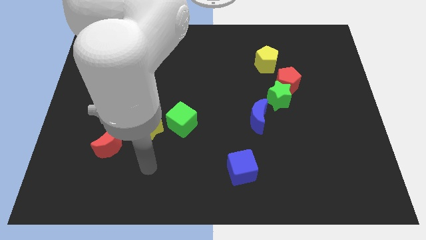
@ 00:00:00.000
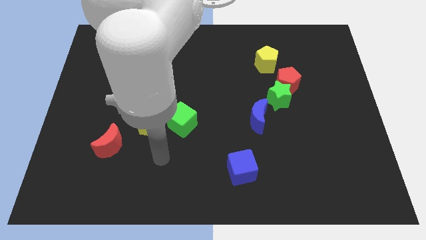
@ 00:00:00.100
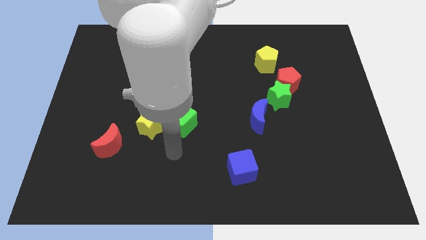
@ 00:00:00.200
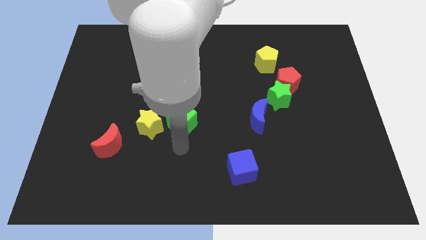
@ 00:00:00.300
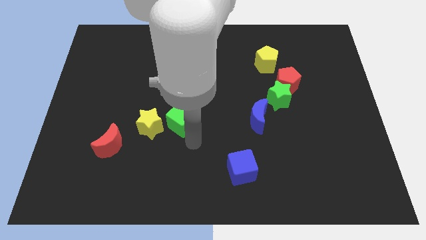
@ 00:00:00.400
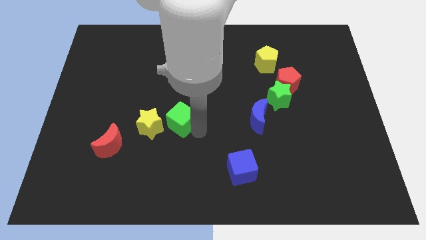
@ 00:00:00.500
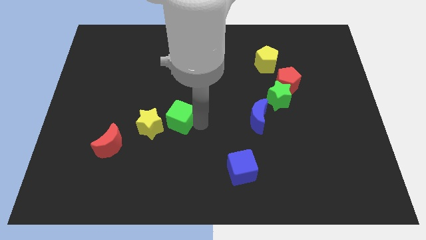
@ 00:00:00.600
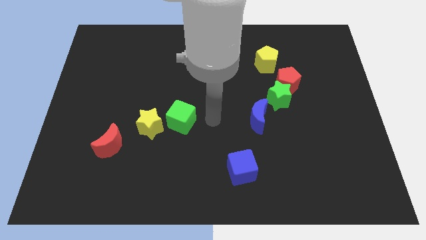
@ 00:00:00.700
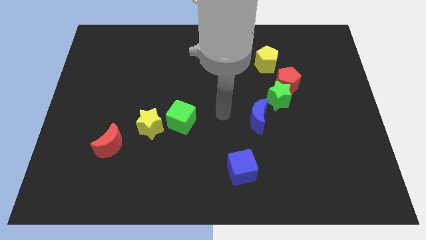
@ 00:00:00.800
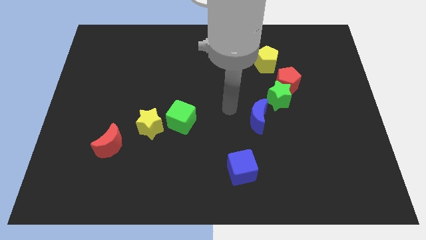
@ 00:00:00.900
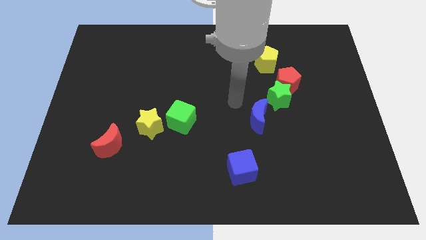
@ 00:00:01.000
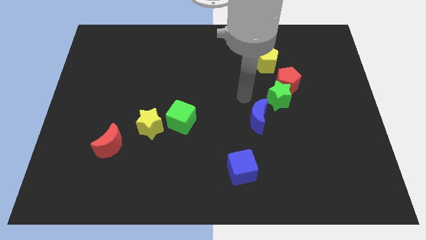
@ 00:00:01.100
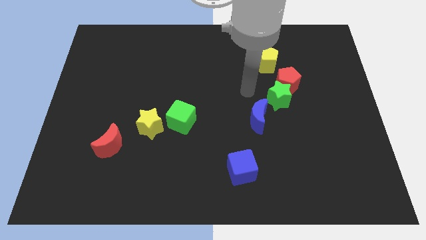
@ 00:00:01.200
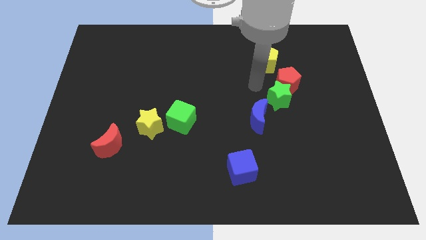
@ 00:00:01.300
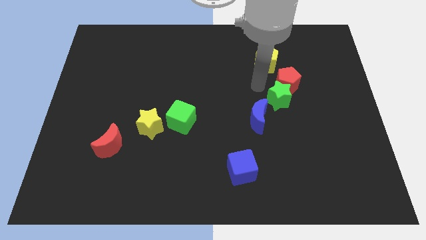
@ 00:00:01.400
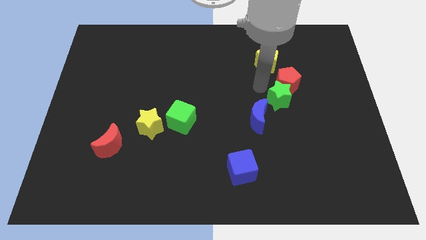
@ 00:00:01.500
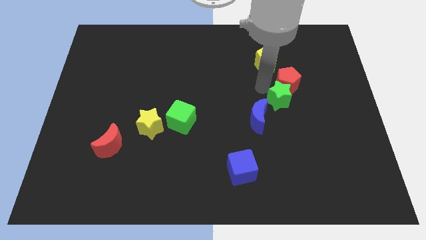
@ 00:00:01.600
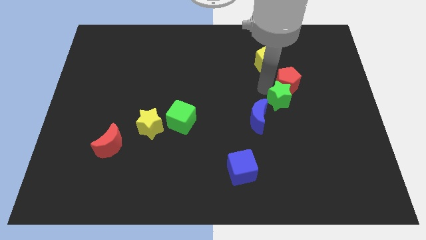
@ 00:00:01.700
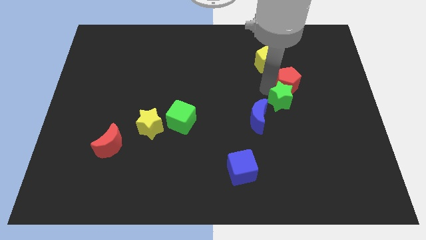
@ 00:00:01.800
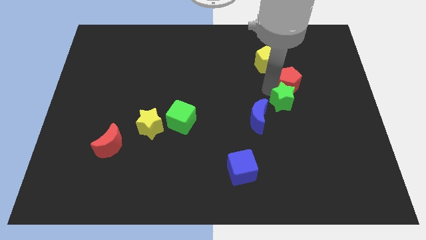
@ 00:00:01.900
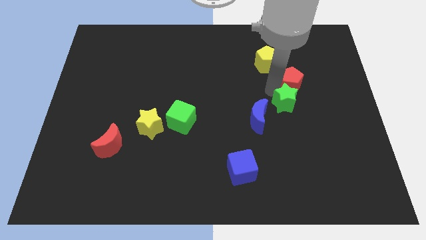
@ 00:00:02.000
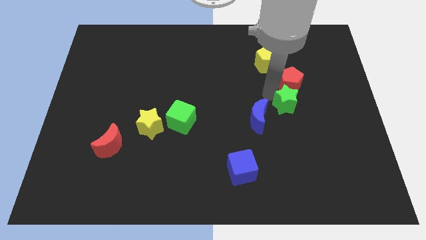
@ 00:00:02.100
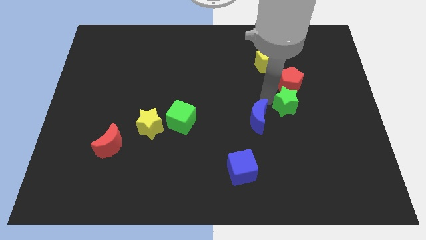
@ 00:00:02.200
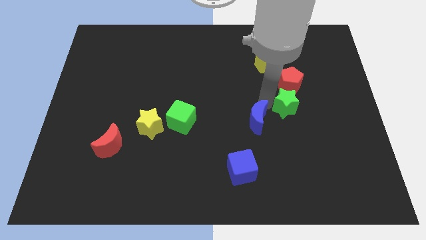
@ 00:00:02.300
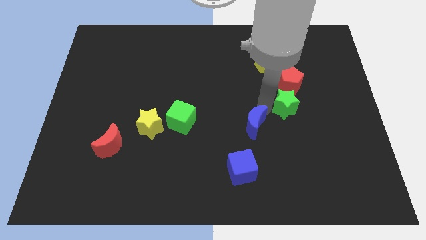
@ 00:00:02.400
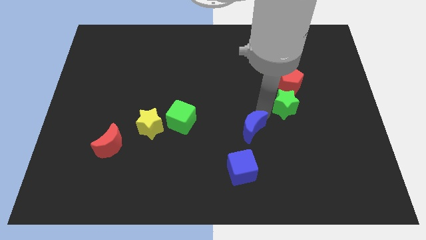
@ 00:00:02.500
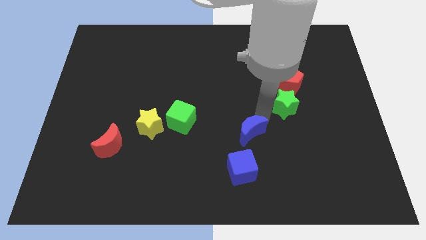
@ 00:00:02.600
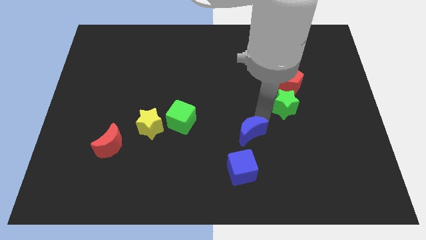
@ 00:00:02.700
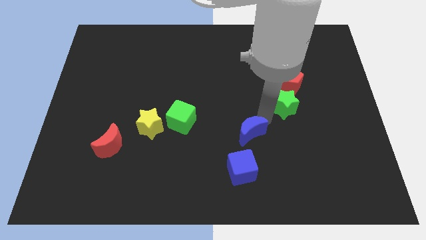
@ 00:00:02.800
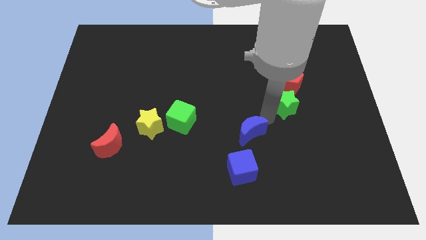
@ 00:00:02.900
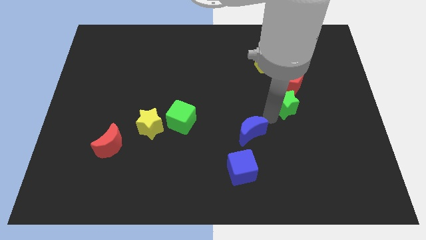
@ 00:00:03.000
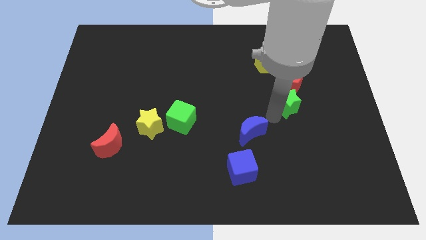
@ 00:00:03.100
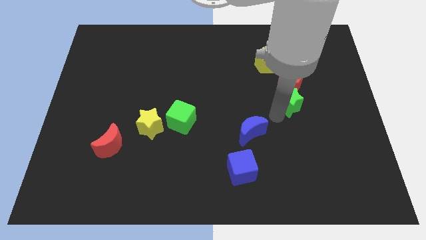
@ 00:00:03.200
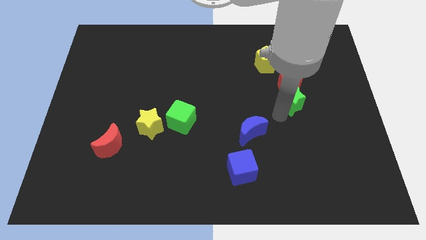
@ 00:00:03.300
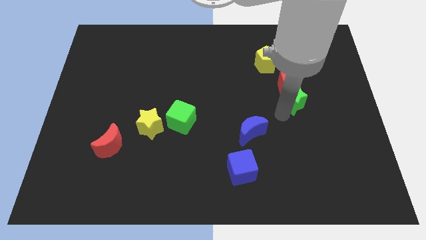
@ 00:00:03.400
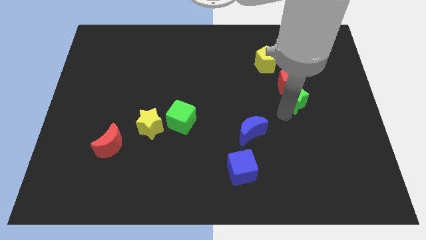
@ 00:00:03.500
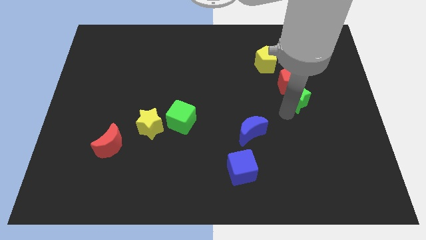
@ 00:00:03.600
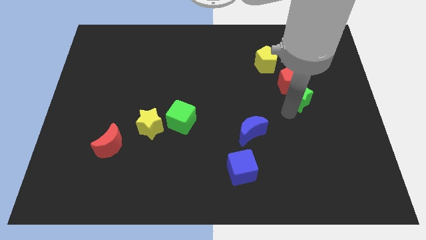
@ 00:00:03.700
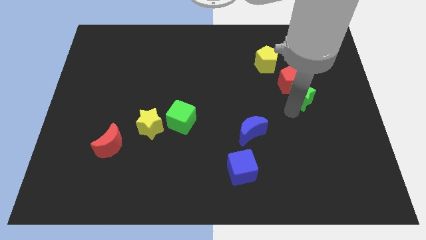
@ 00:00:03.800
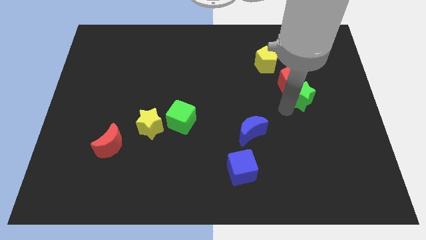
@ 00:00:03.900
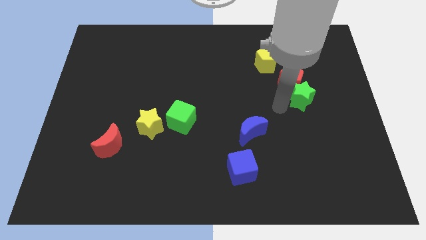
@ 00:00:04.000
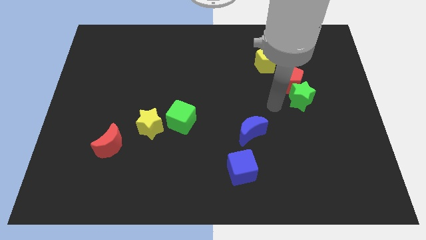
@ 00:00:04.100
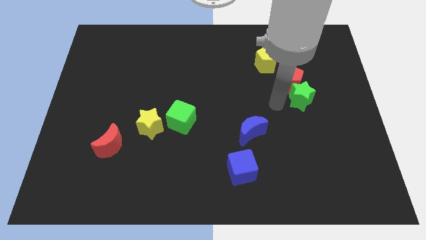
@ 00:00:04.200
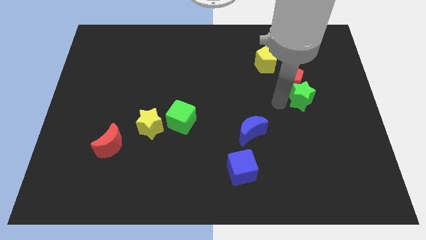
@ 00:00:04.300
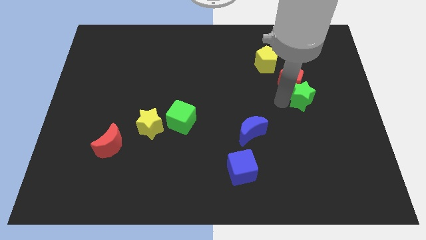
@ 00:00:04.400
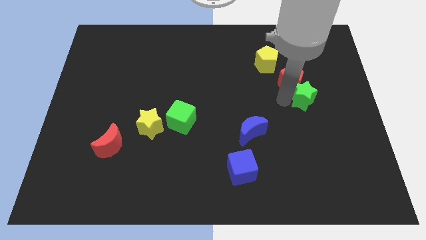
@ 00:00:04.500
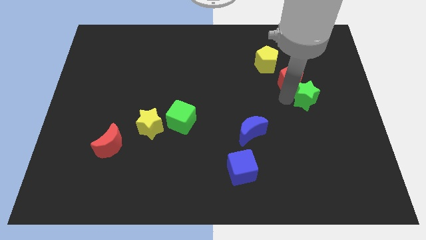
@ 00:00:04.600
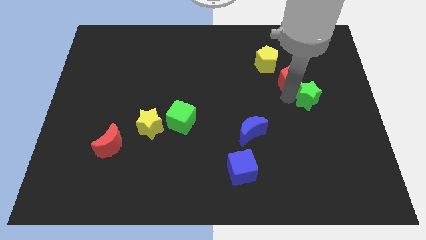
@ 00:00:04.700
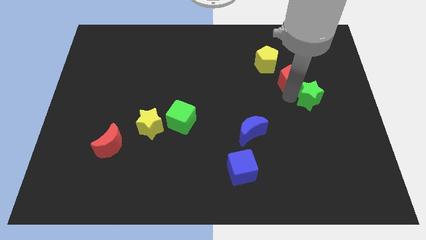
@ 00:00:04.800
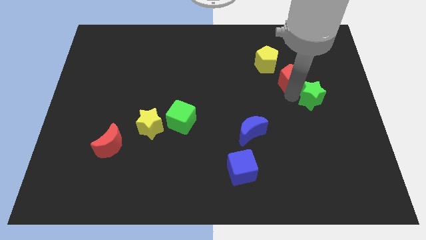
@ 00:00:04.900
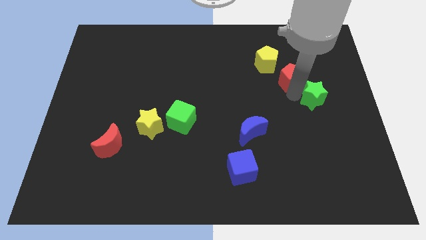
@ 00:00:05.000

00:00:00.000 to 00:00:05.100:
move the green star away from the red pentagon and blue moon

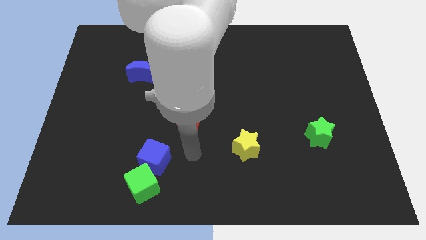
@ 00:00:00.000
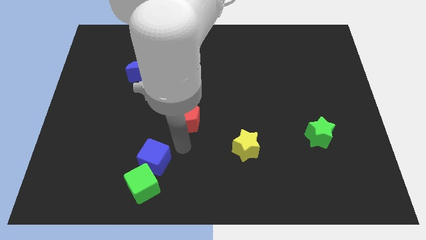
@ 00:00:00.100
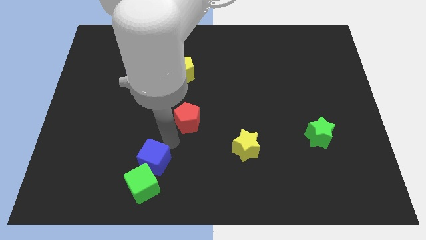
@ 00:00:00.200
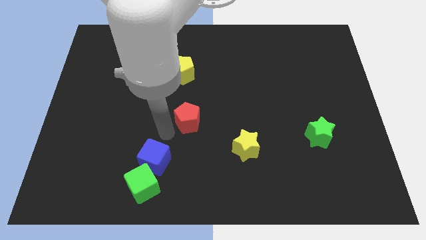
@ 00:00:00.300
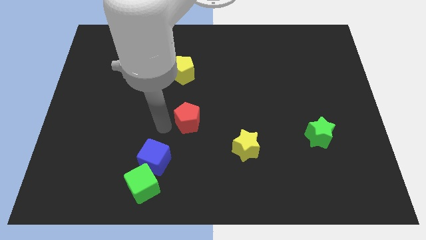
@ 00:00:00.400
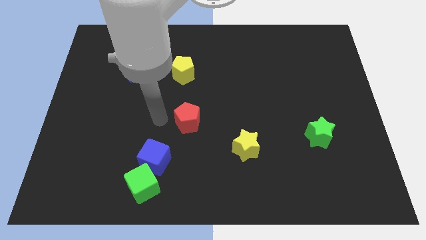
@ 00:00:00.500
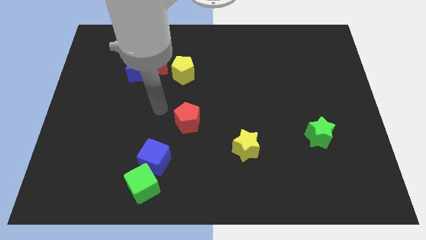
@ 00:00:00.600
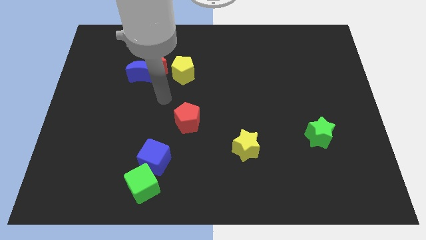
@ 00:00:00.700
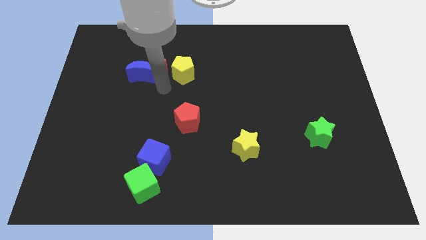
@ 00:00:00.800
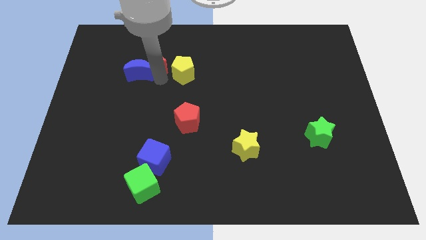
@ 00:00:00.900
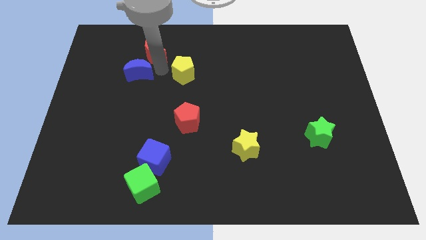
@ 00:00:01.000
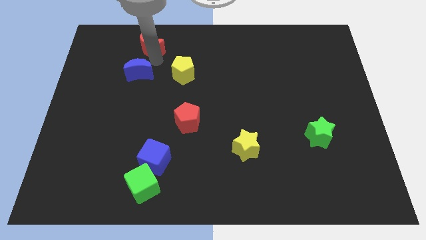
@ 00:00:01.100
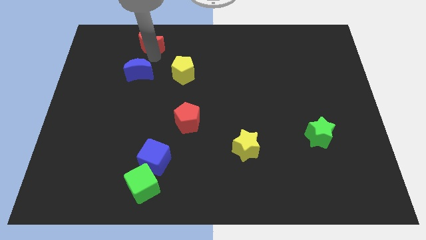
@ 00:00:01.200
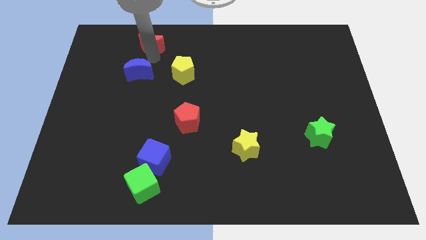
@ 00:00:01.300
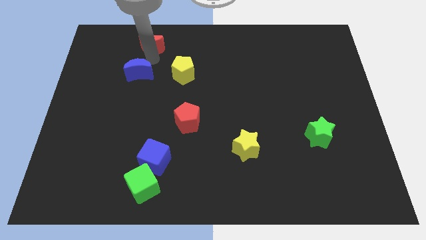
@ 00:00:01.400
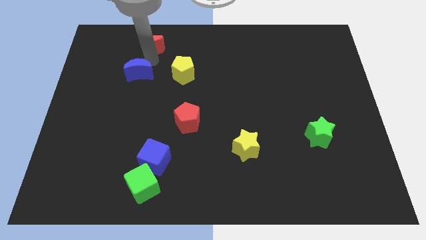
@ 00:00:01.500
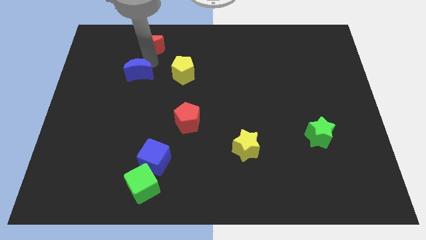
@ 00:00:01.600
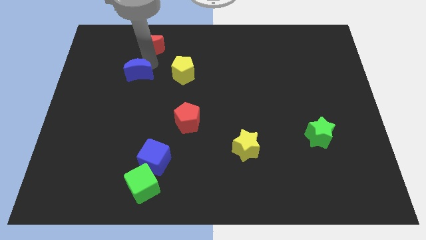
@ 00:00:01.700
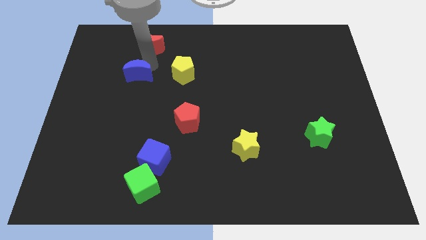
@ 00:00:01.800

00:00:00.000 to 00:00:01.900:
separate the blue moon from the red moon

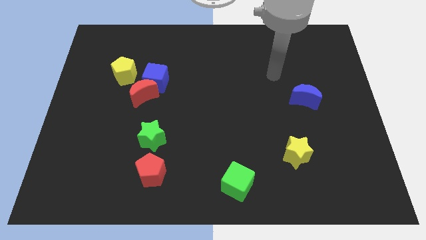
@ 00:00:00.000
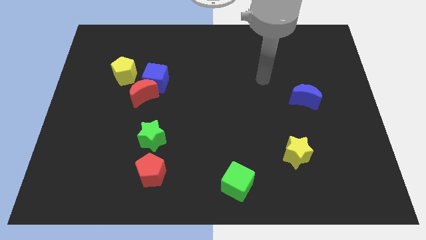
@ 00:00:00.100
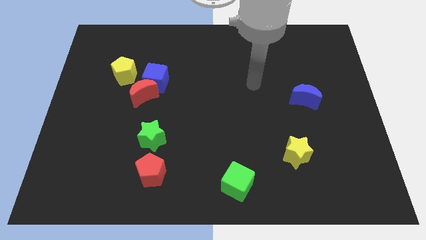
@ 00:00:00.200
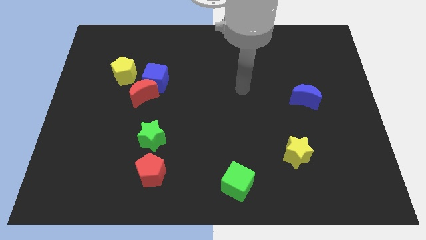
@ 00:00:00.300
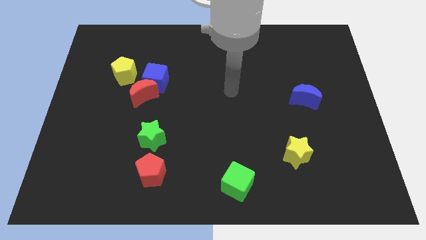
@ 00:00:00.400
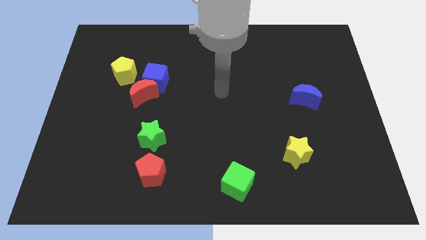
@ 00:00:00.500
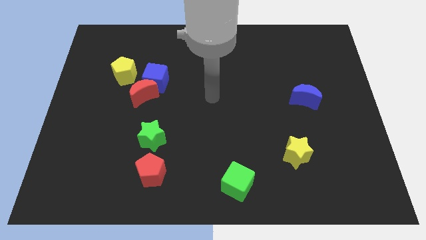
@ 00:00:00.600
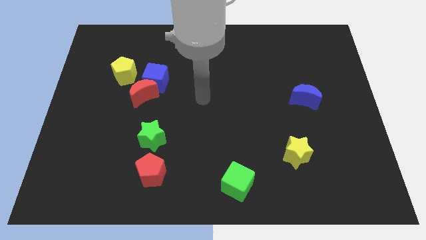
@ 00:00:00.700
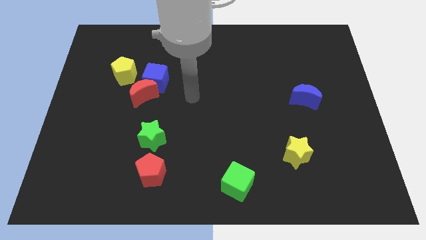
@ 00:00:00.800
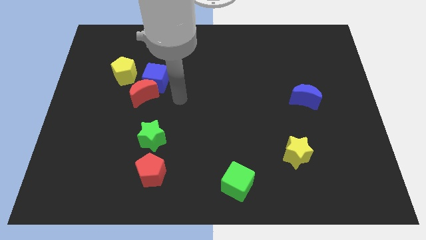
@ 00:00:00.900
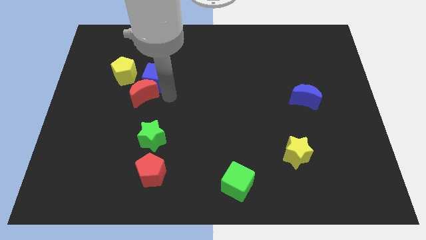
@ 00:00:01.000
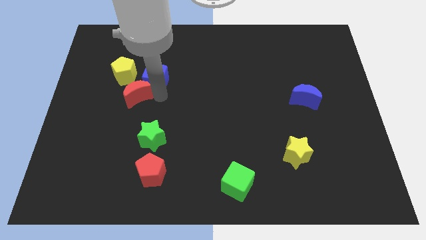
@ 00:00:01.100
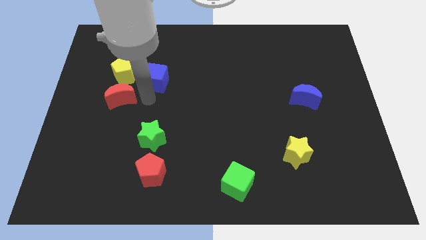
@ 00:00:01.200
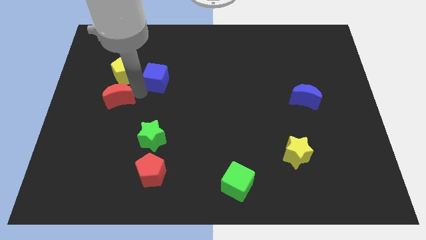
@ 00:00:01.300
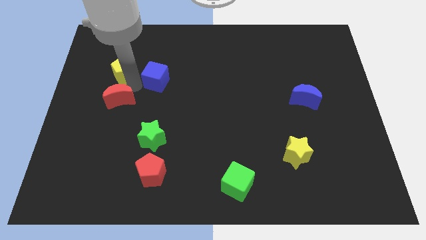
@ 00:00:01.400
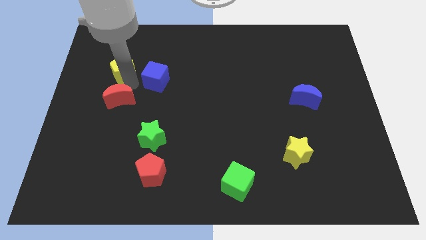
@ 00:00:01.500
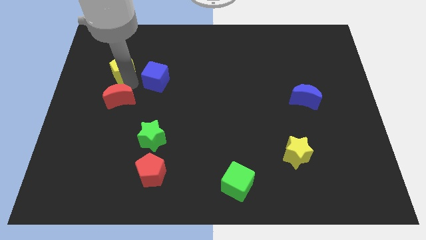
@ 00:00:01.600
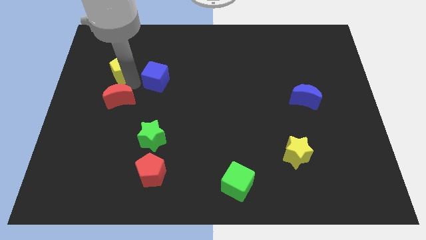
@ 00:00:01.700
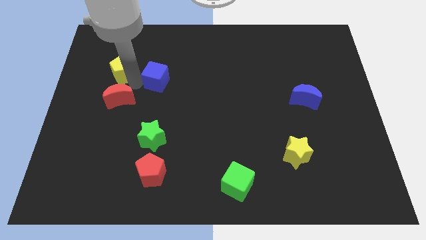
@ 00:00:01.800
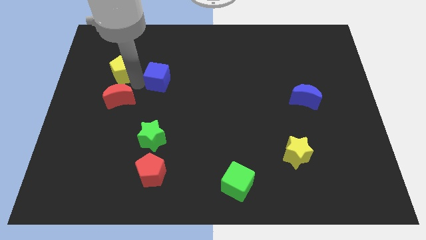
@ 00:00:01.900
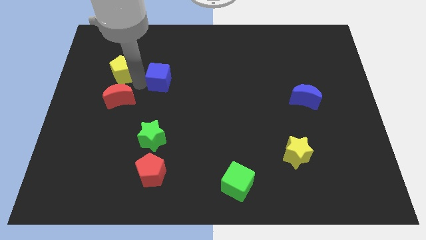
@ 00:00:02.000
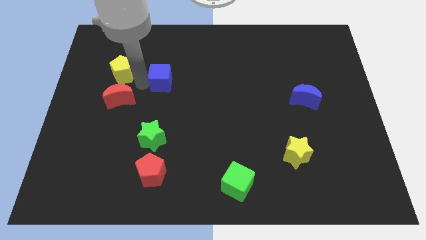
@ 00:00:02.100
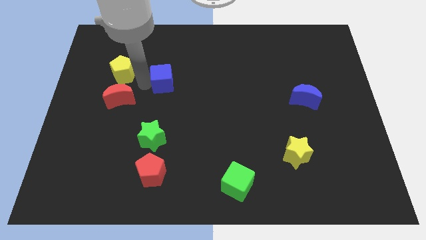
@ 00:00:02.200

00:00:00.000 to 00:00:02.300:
separate the blue cube from the red moon and yellow pentagon
